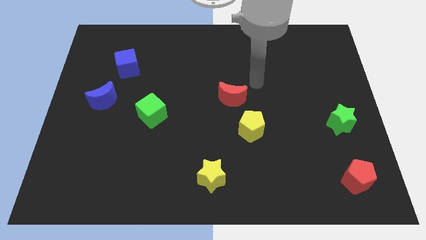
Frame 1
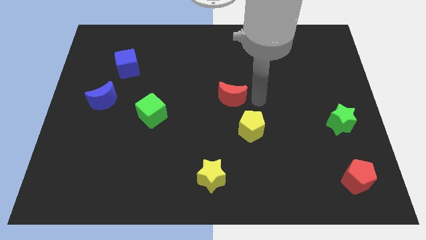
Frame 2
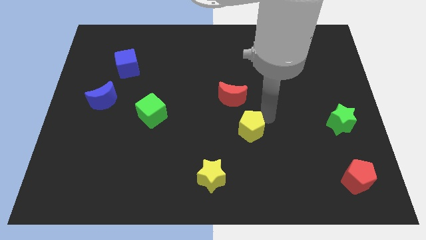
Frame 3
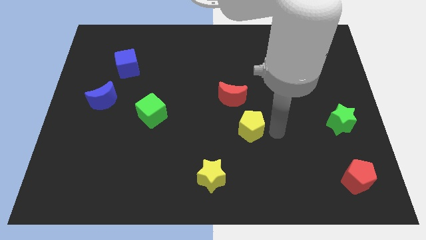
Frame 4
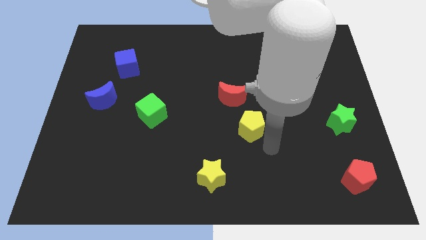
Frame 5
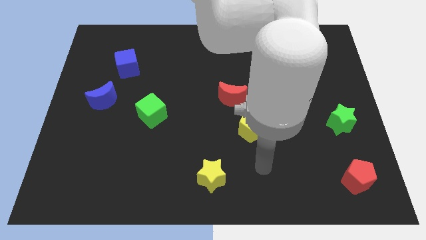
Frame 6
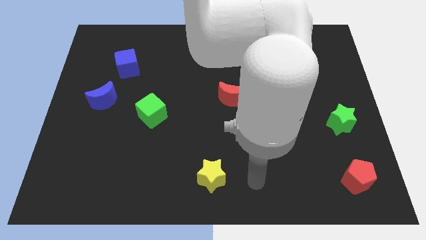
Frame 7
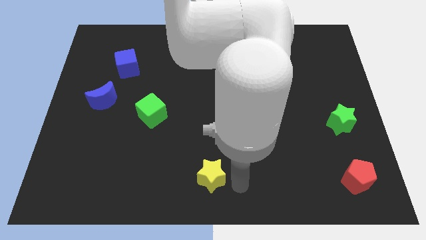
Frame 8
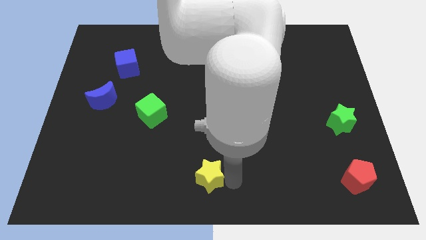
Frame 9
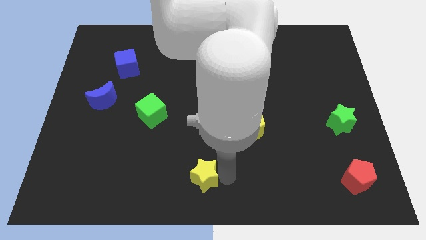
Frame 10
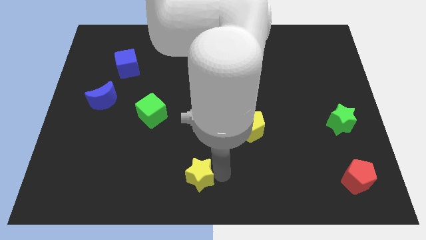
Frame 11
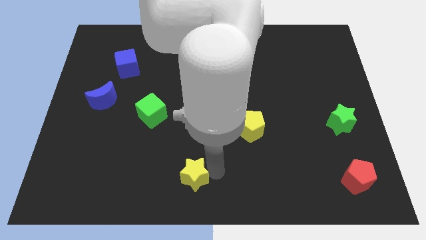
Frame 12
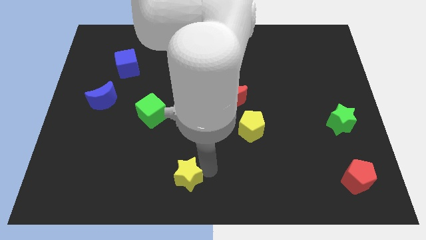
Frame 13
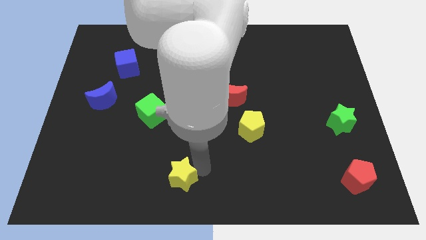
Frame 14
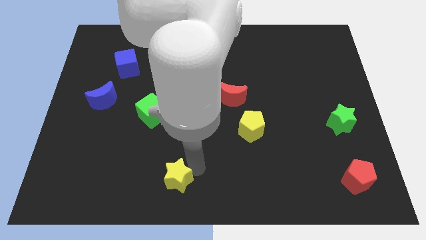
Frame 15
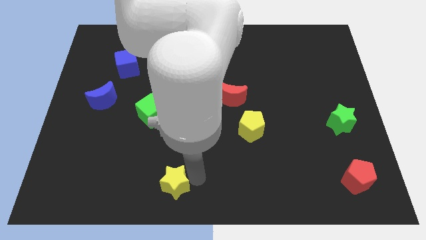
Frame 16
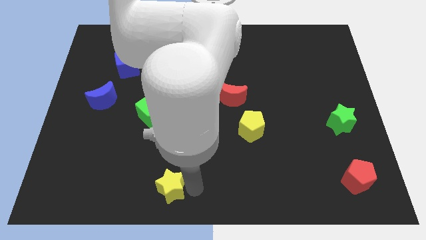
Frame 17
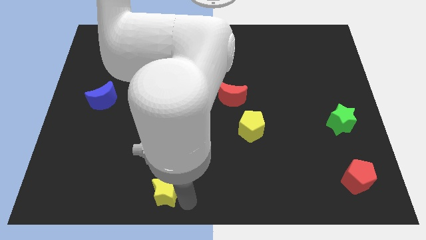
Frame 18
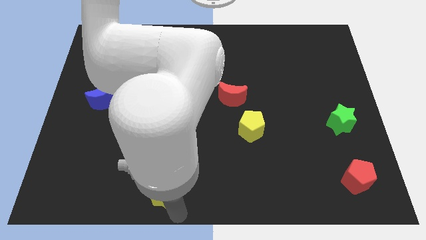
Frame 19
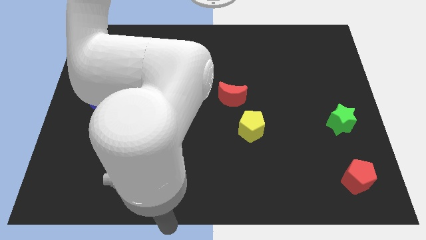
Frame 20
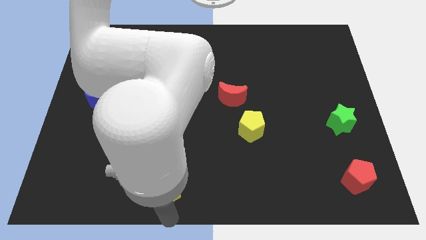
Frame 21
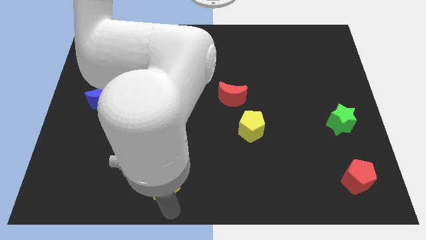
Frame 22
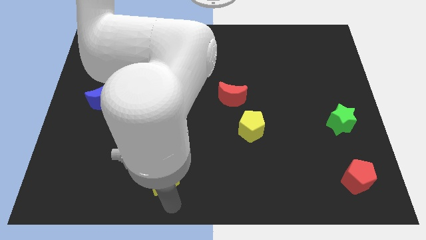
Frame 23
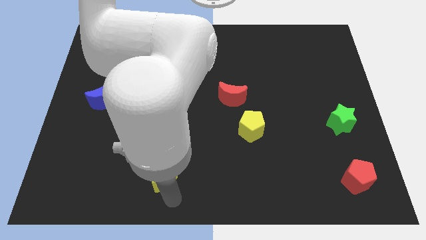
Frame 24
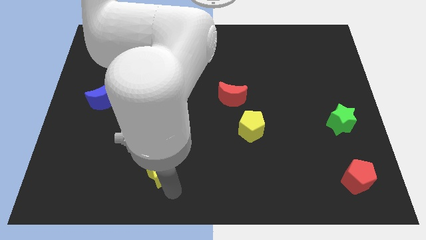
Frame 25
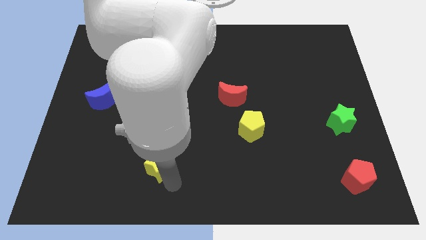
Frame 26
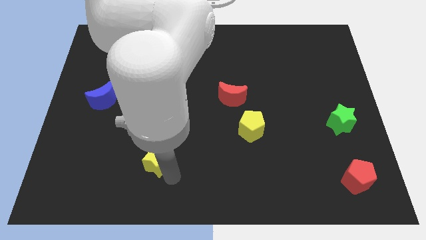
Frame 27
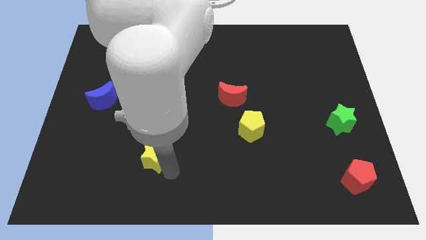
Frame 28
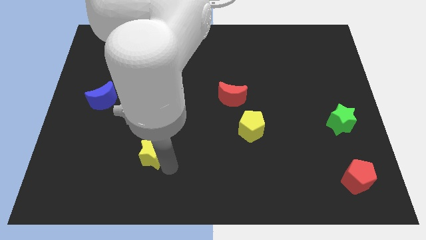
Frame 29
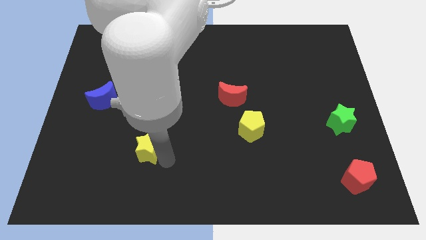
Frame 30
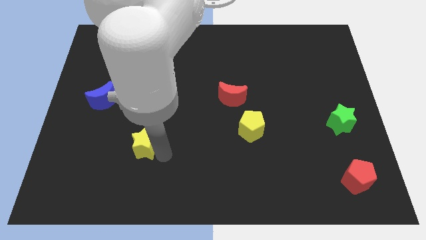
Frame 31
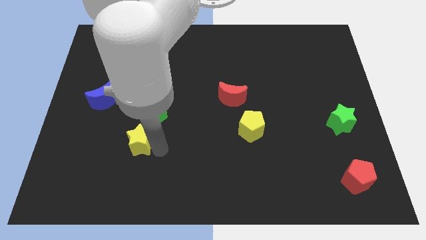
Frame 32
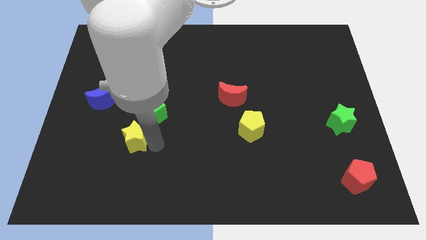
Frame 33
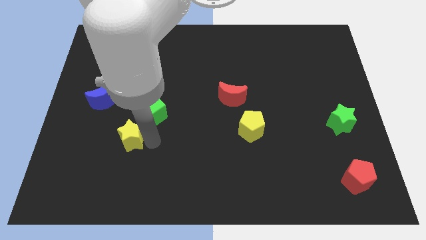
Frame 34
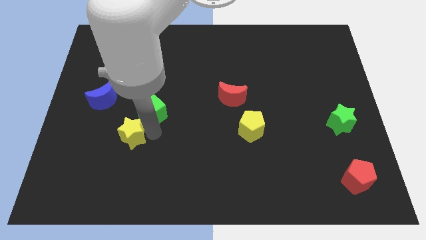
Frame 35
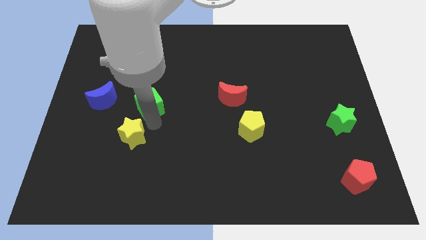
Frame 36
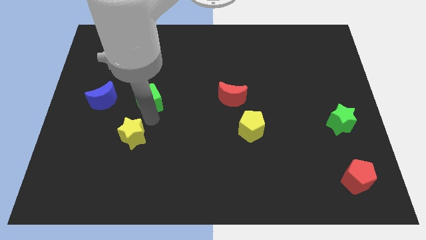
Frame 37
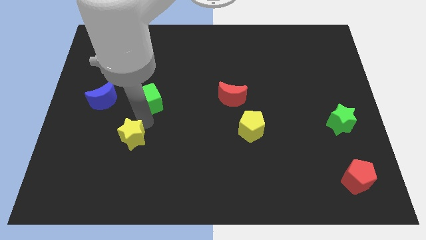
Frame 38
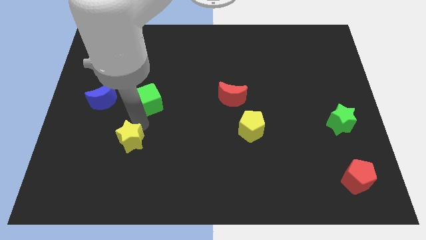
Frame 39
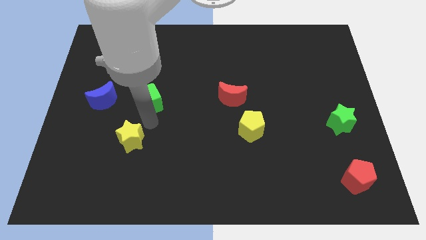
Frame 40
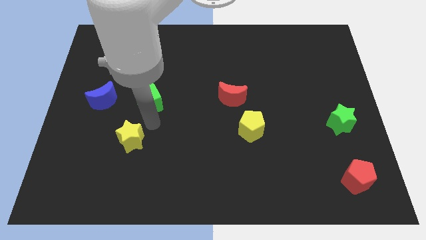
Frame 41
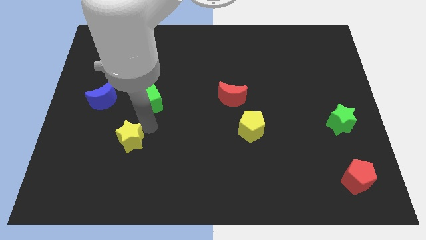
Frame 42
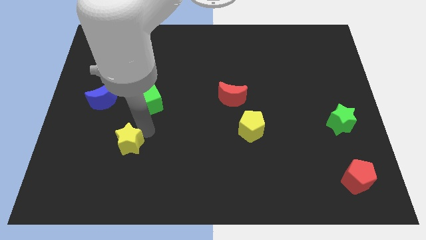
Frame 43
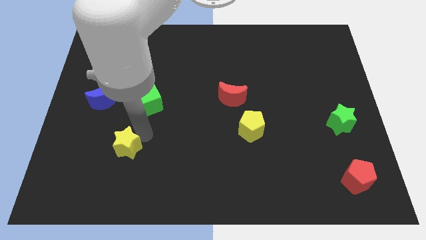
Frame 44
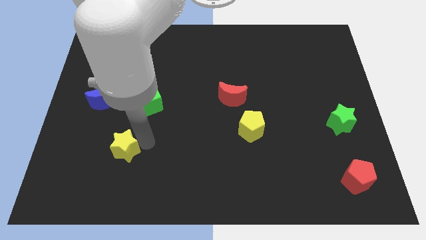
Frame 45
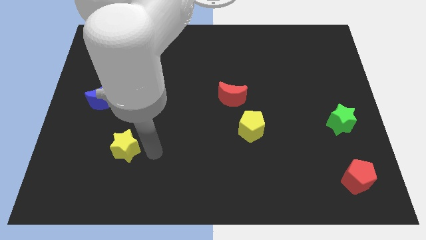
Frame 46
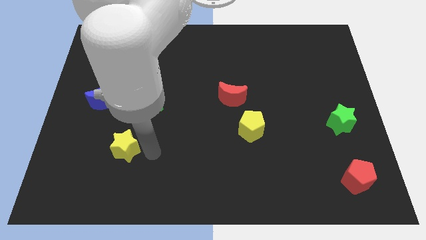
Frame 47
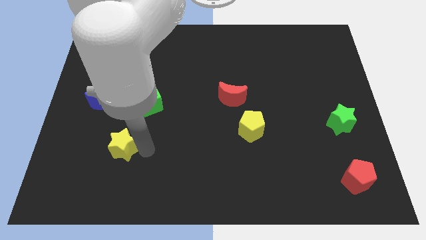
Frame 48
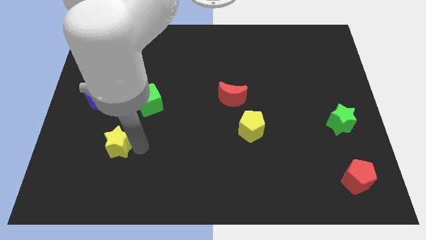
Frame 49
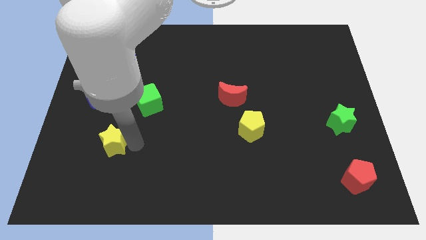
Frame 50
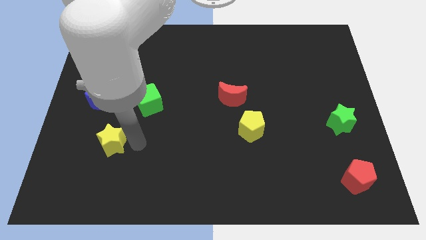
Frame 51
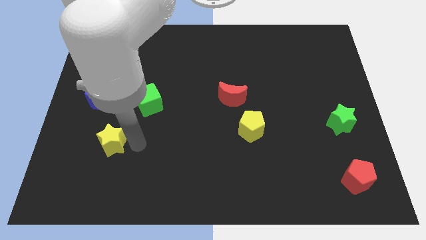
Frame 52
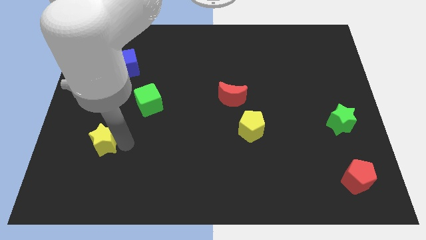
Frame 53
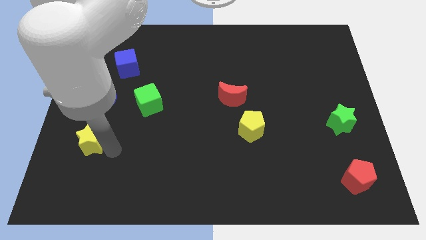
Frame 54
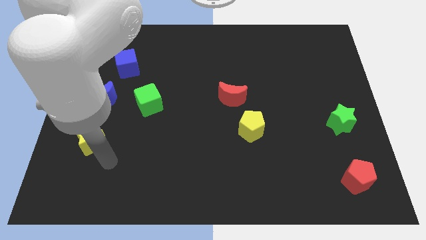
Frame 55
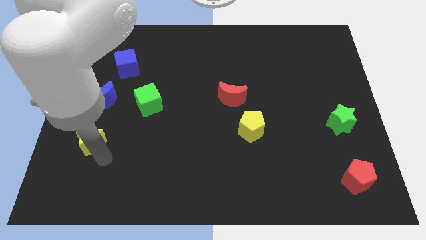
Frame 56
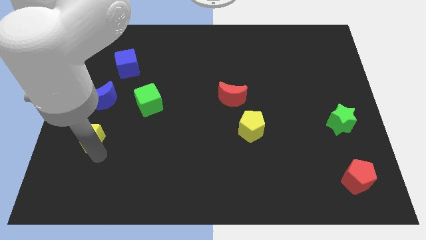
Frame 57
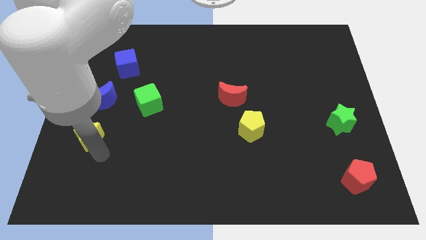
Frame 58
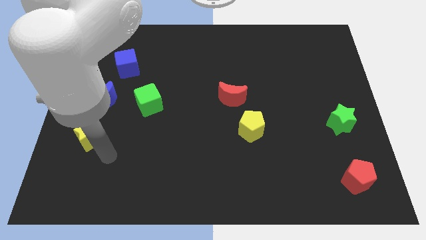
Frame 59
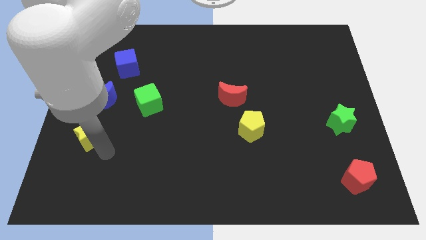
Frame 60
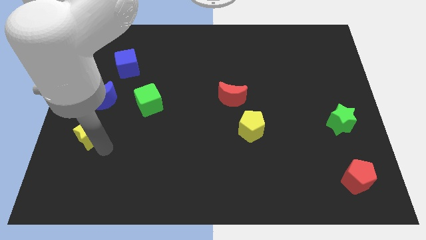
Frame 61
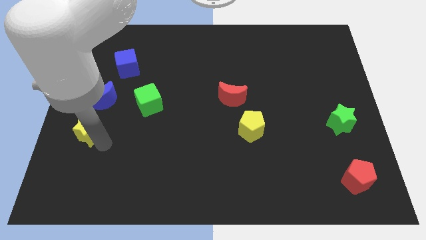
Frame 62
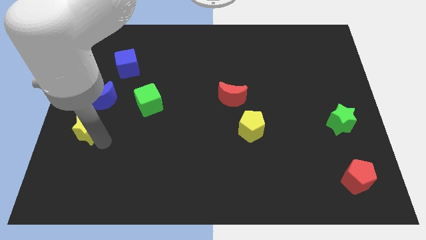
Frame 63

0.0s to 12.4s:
put the yellow star to the left side of the board
